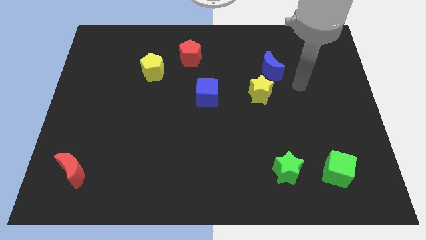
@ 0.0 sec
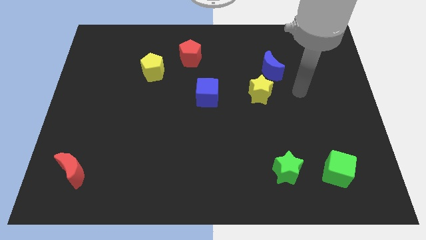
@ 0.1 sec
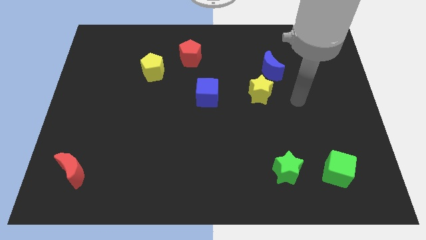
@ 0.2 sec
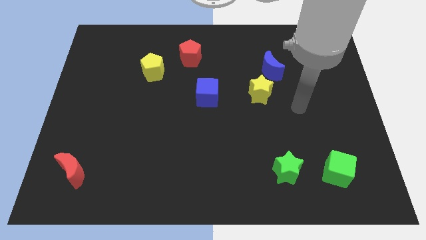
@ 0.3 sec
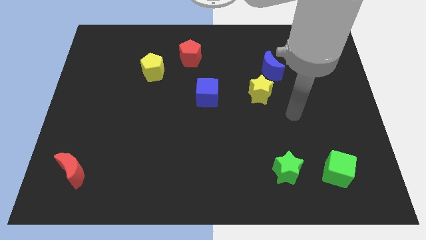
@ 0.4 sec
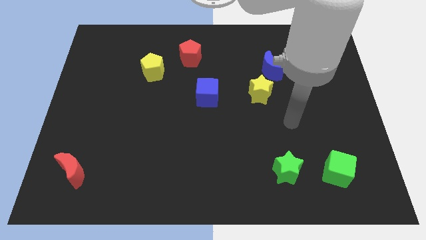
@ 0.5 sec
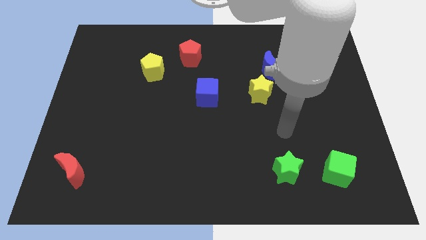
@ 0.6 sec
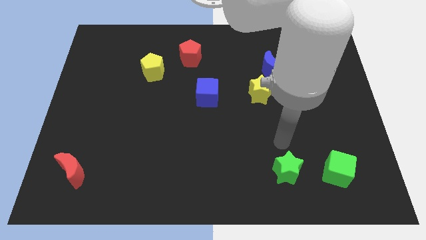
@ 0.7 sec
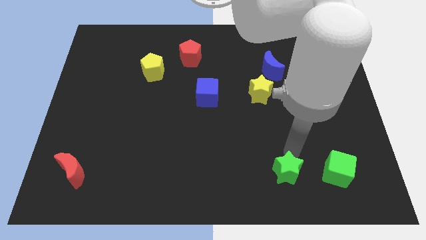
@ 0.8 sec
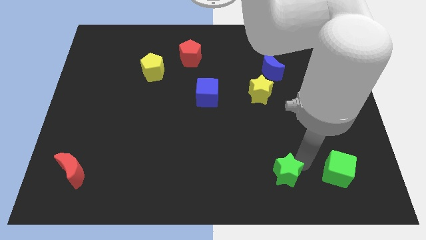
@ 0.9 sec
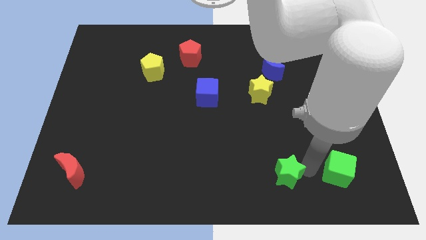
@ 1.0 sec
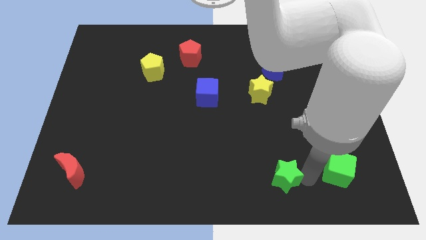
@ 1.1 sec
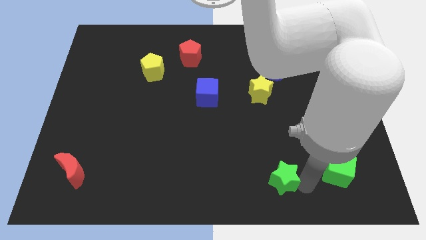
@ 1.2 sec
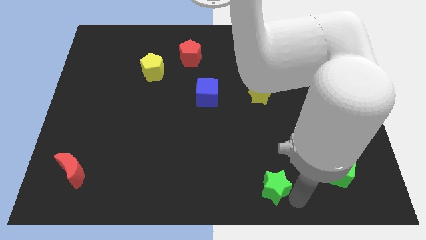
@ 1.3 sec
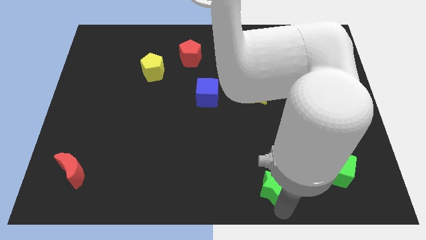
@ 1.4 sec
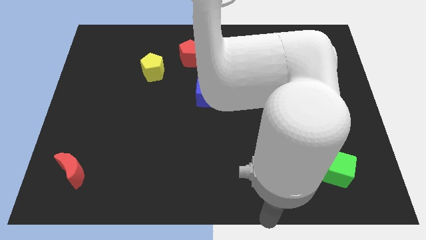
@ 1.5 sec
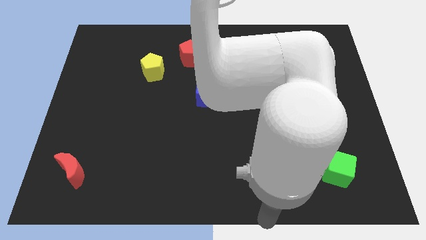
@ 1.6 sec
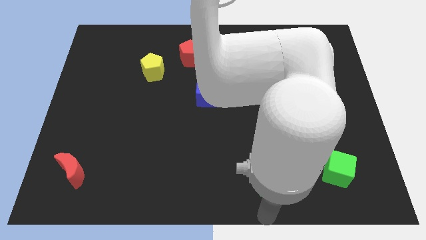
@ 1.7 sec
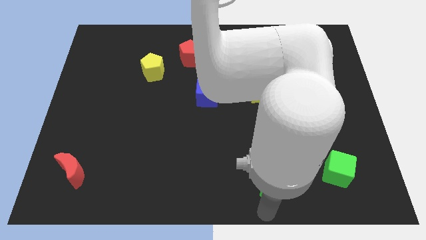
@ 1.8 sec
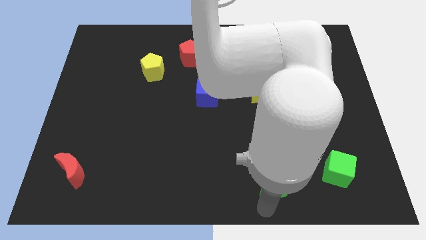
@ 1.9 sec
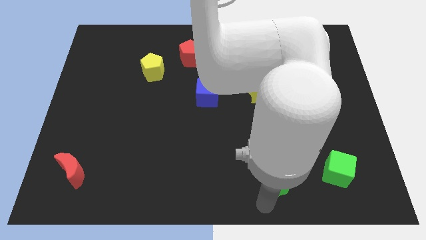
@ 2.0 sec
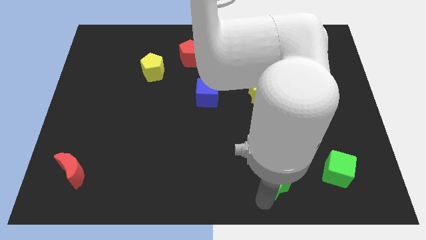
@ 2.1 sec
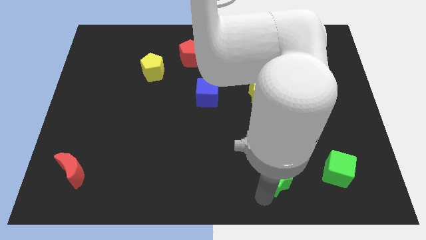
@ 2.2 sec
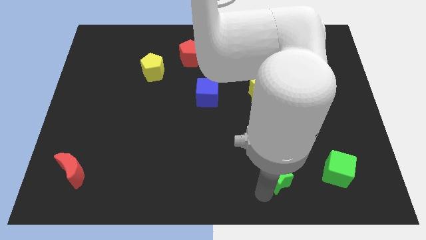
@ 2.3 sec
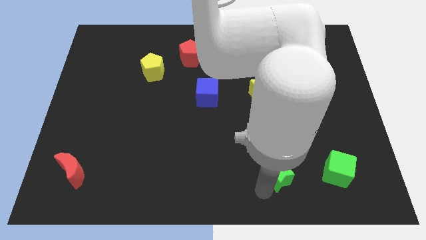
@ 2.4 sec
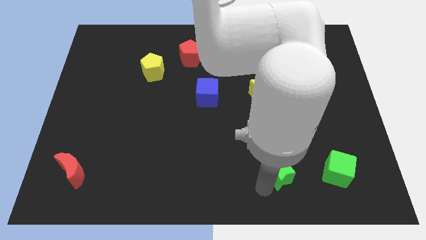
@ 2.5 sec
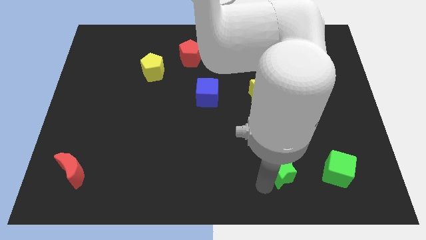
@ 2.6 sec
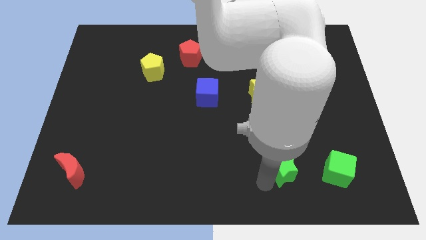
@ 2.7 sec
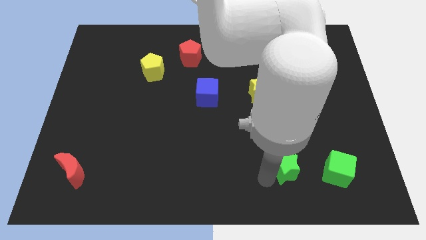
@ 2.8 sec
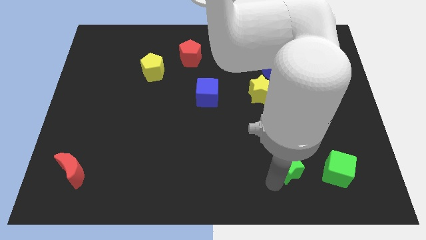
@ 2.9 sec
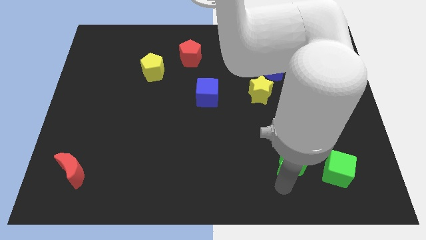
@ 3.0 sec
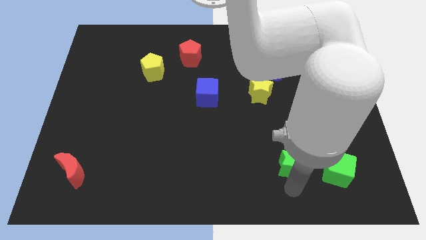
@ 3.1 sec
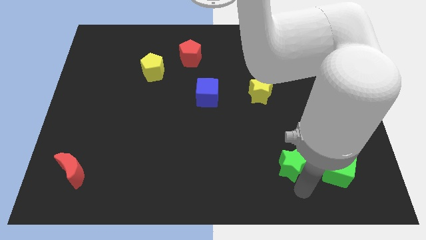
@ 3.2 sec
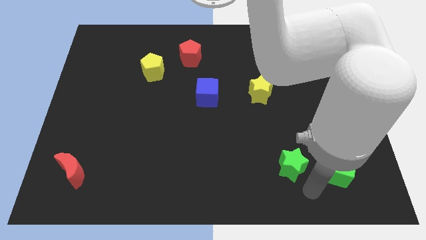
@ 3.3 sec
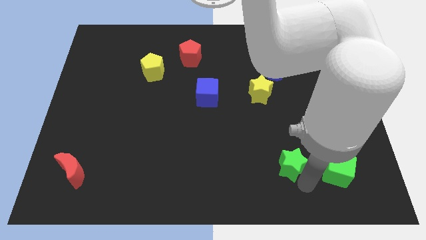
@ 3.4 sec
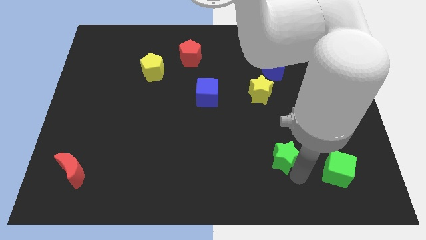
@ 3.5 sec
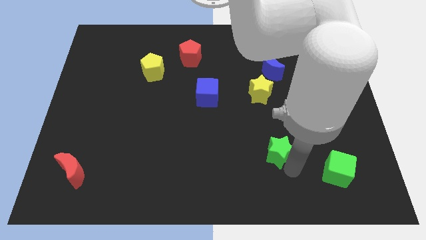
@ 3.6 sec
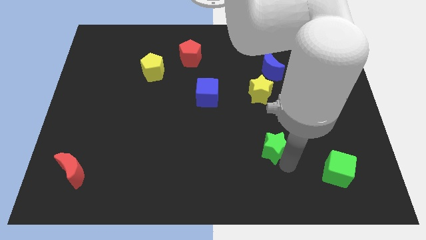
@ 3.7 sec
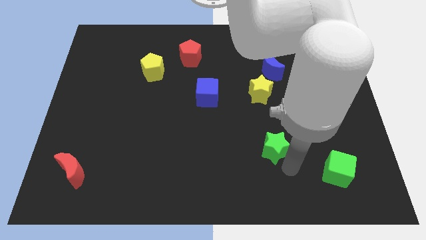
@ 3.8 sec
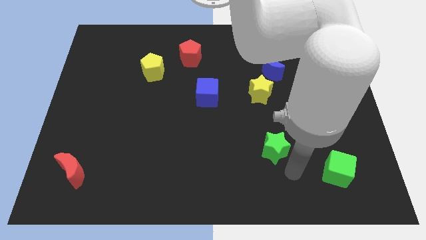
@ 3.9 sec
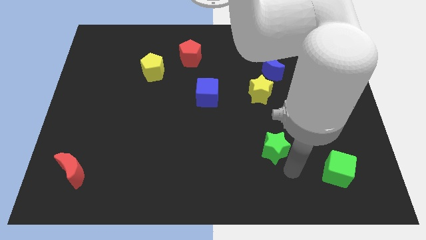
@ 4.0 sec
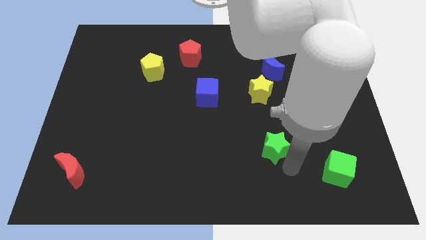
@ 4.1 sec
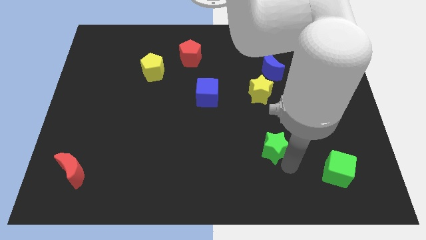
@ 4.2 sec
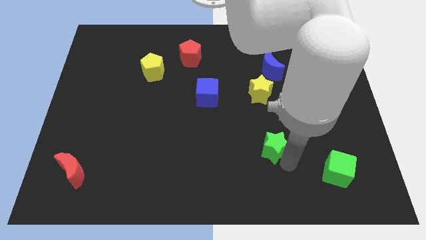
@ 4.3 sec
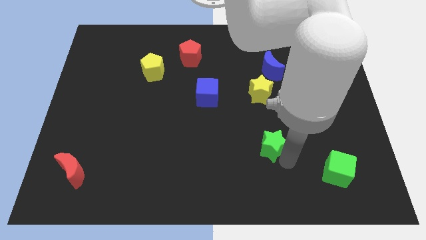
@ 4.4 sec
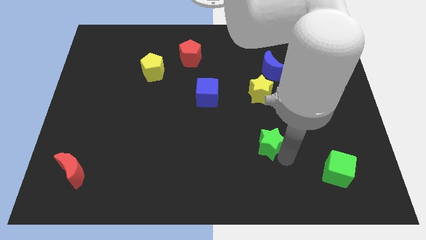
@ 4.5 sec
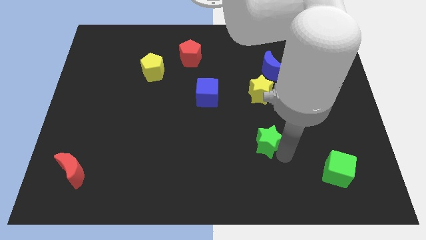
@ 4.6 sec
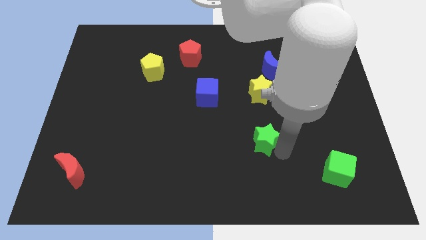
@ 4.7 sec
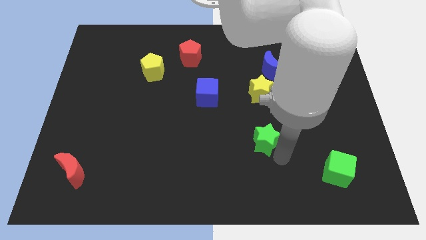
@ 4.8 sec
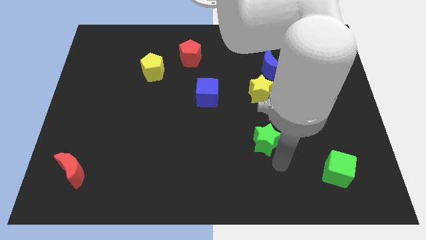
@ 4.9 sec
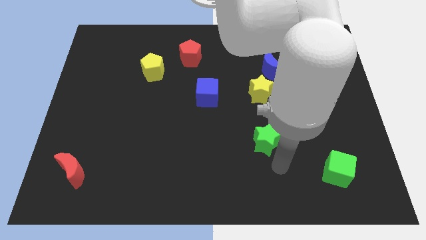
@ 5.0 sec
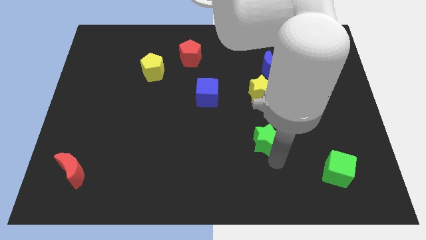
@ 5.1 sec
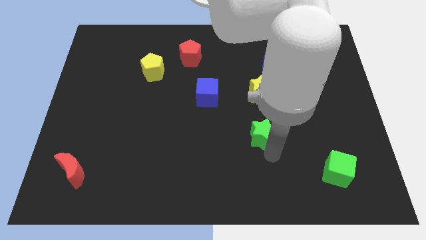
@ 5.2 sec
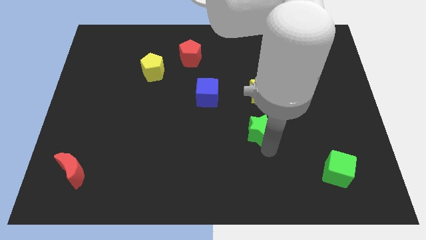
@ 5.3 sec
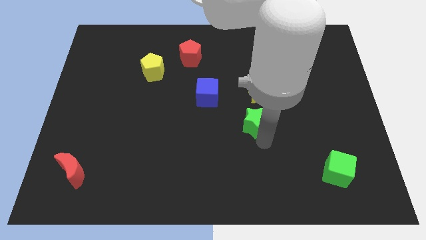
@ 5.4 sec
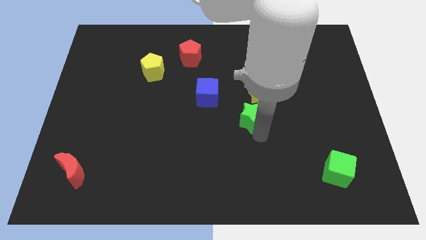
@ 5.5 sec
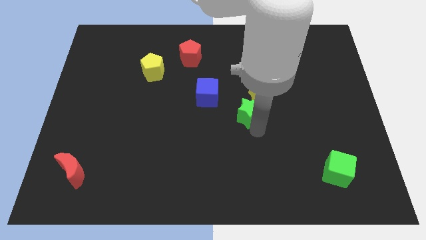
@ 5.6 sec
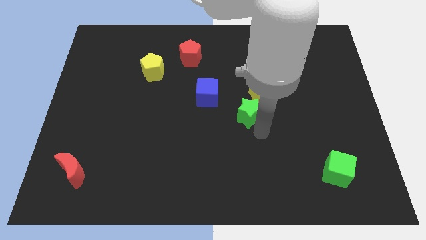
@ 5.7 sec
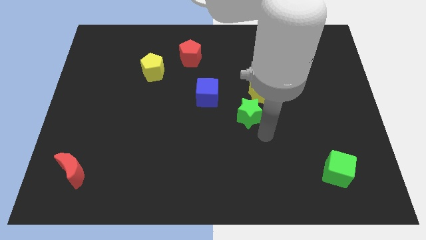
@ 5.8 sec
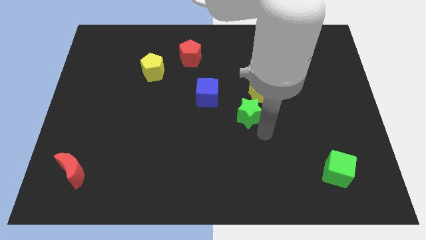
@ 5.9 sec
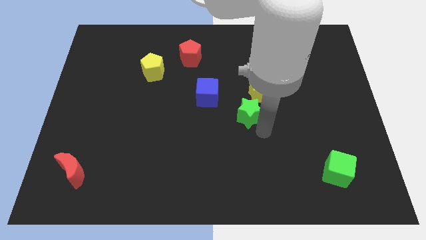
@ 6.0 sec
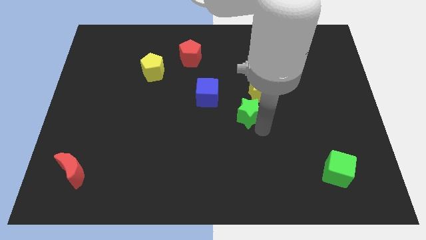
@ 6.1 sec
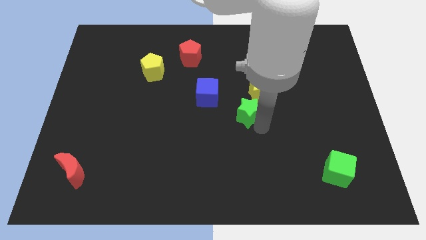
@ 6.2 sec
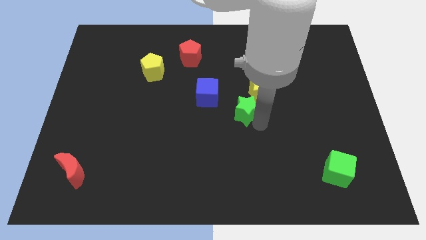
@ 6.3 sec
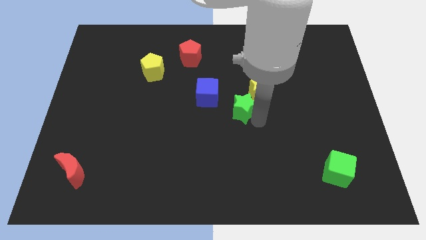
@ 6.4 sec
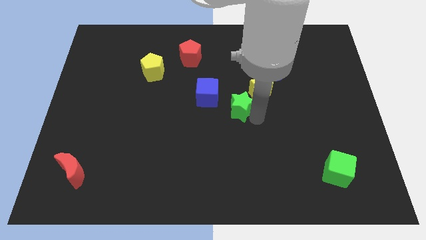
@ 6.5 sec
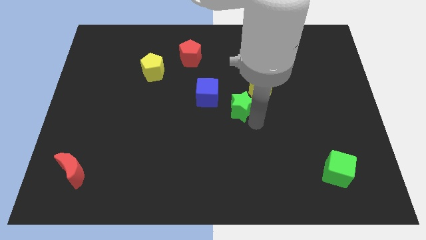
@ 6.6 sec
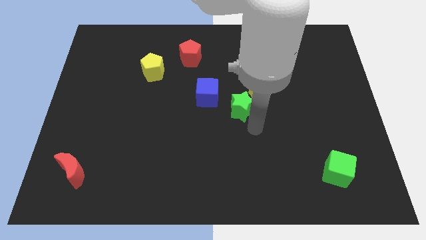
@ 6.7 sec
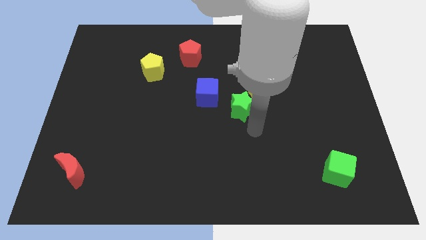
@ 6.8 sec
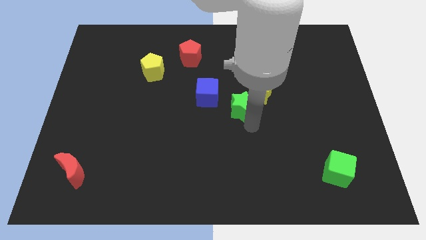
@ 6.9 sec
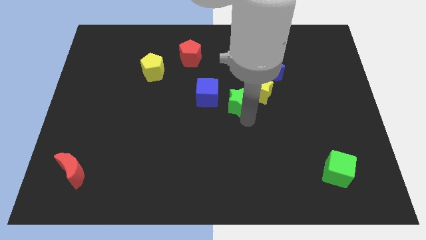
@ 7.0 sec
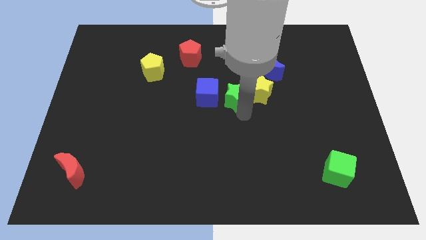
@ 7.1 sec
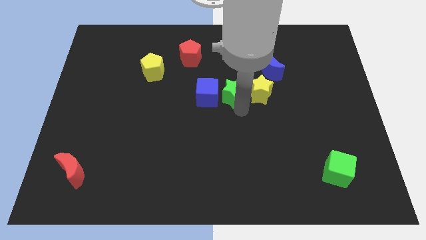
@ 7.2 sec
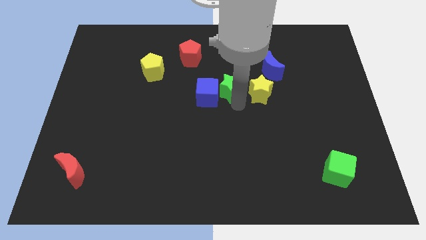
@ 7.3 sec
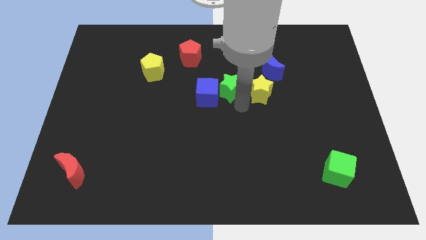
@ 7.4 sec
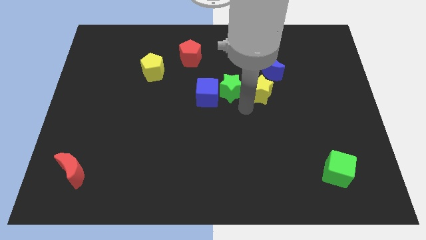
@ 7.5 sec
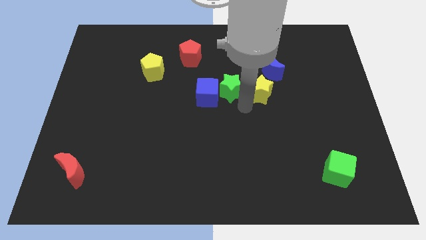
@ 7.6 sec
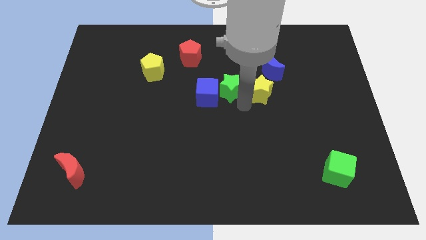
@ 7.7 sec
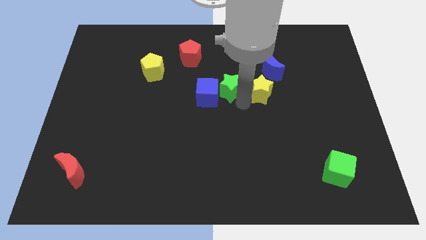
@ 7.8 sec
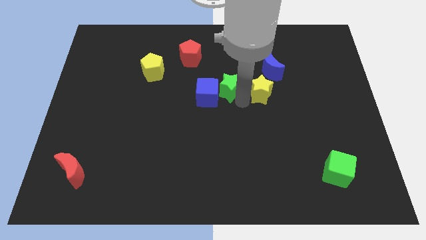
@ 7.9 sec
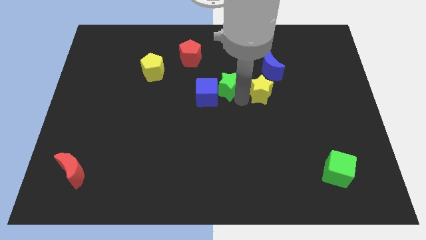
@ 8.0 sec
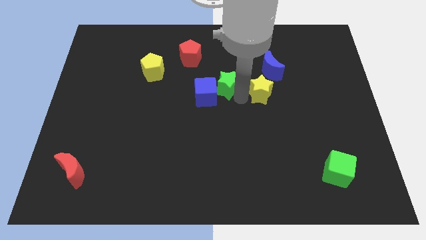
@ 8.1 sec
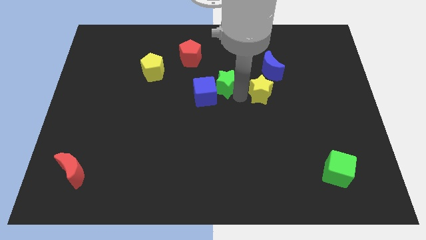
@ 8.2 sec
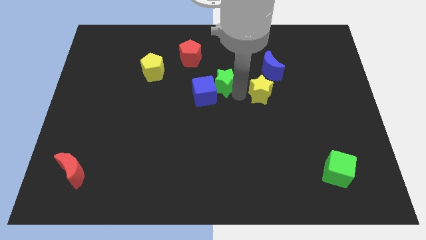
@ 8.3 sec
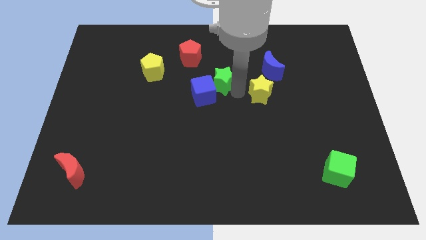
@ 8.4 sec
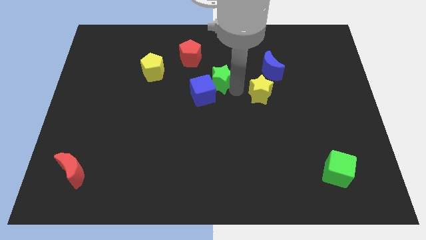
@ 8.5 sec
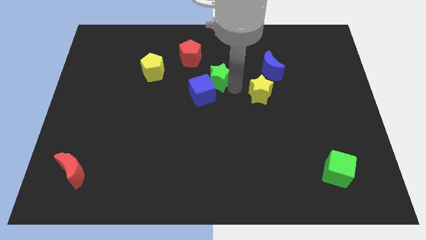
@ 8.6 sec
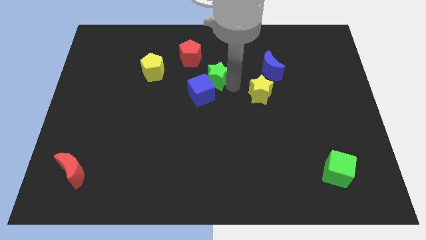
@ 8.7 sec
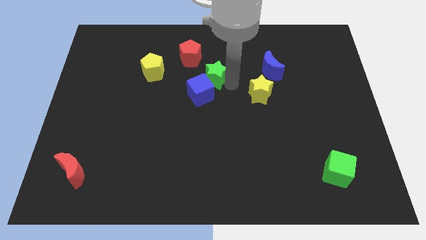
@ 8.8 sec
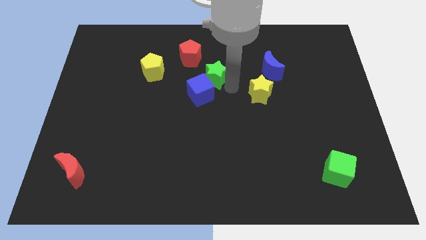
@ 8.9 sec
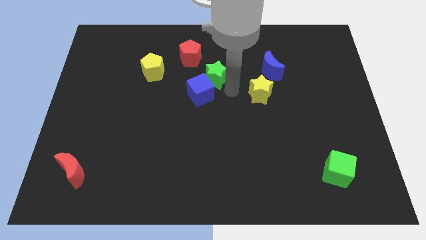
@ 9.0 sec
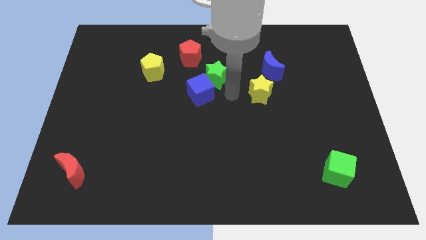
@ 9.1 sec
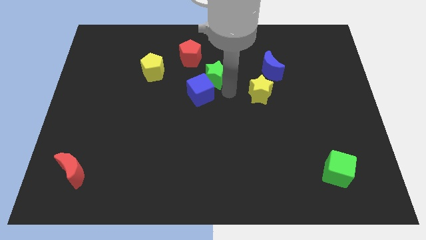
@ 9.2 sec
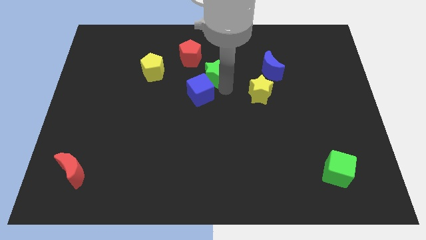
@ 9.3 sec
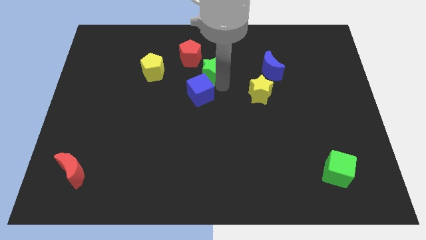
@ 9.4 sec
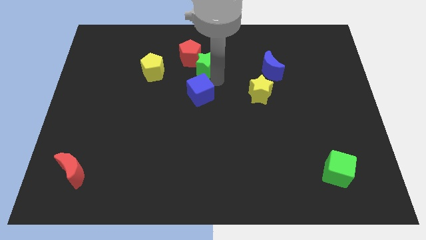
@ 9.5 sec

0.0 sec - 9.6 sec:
slide the green star to the red pentagon
